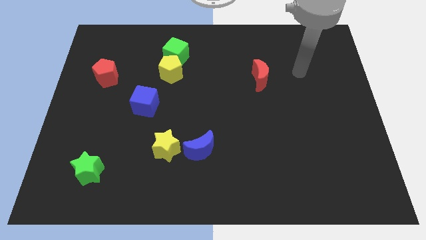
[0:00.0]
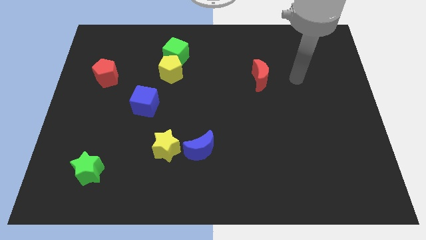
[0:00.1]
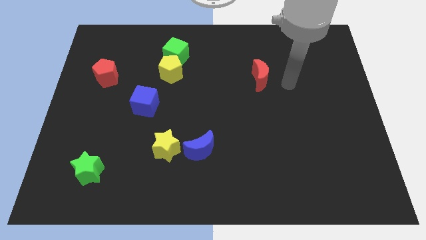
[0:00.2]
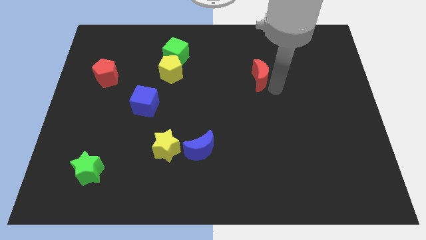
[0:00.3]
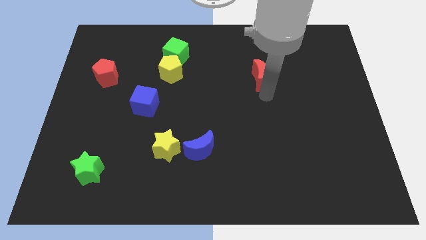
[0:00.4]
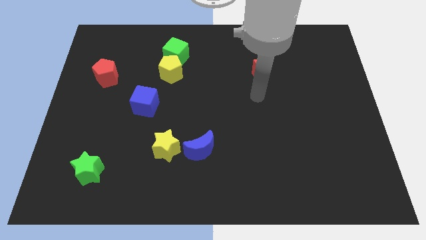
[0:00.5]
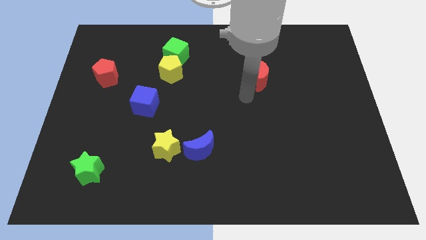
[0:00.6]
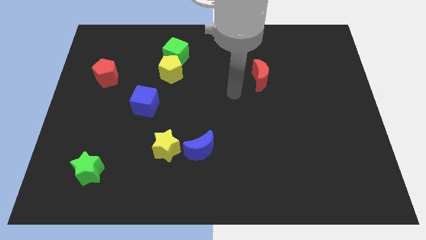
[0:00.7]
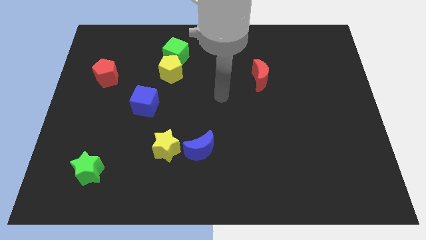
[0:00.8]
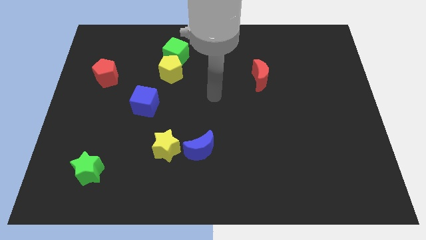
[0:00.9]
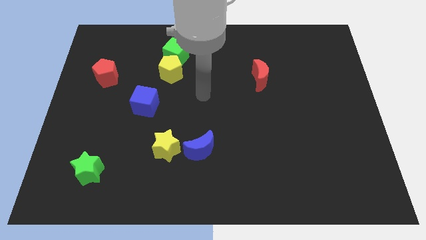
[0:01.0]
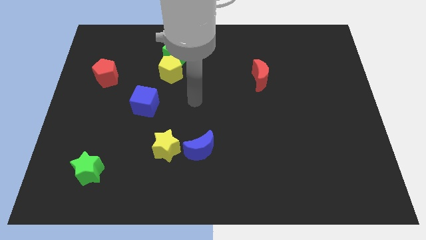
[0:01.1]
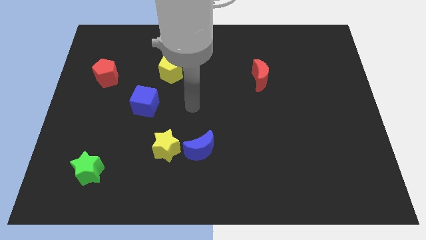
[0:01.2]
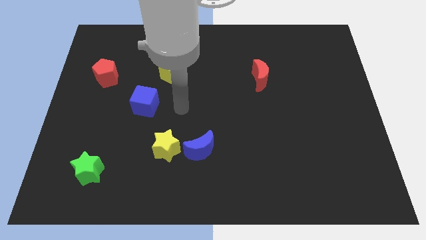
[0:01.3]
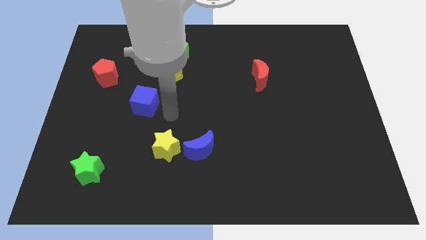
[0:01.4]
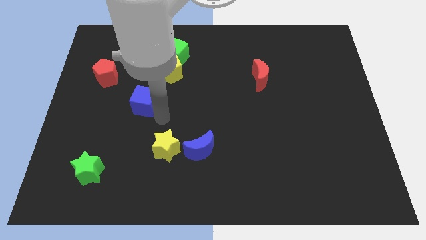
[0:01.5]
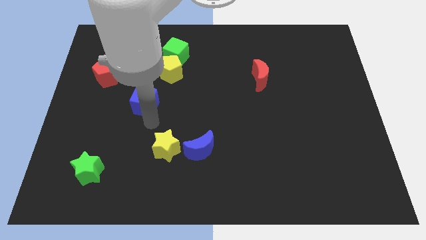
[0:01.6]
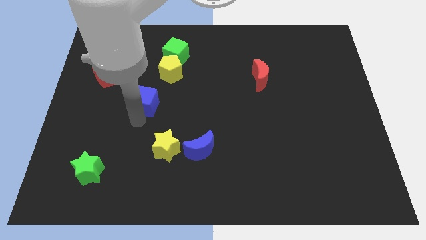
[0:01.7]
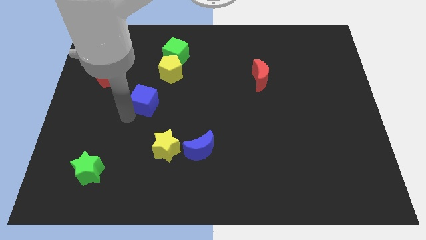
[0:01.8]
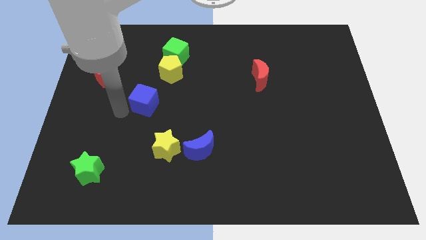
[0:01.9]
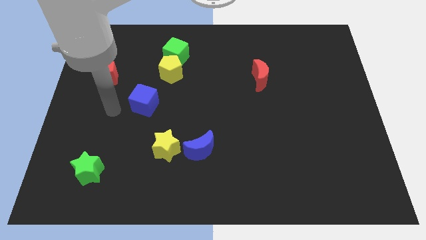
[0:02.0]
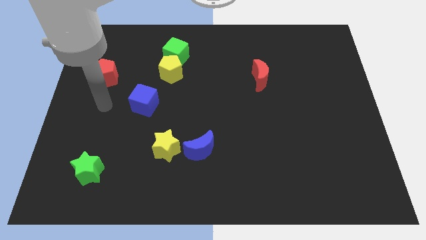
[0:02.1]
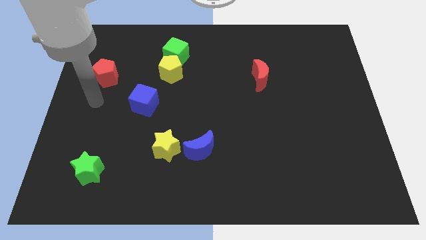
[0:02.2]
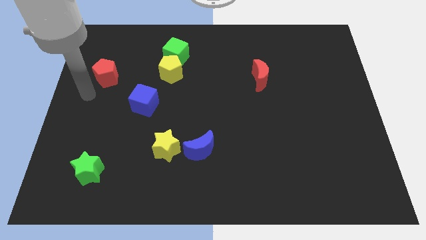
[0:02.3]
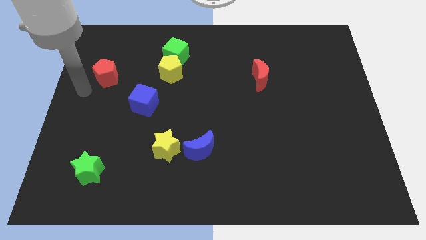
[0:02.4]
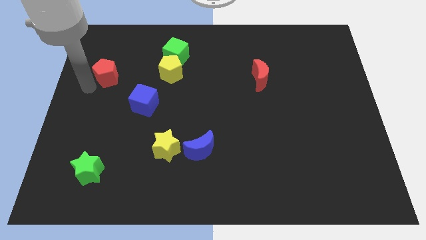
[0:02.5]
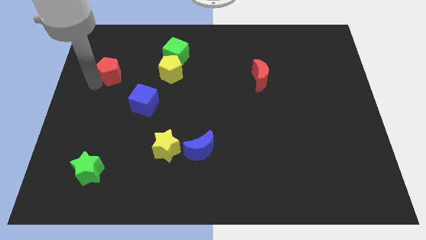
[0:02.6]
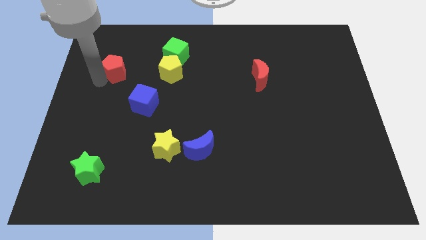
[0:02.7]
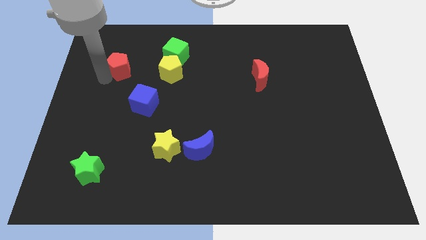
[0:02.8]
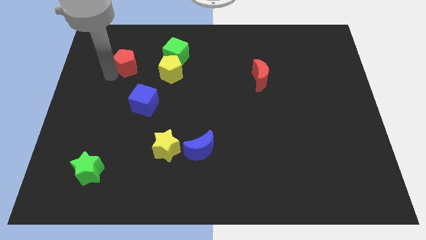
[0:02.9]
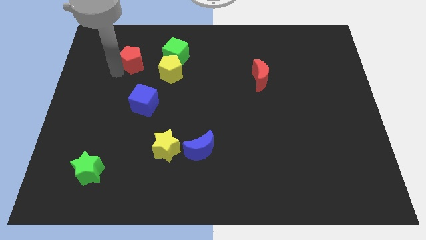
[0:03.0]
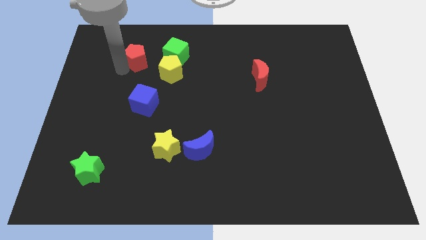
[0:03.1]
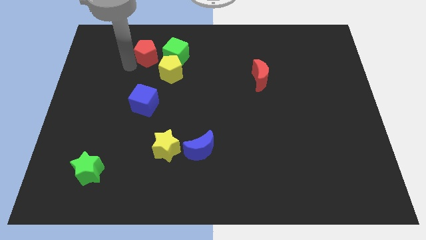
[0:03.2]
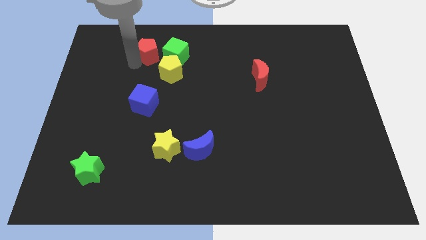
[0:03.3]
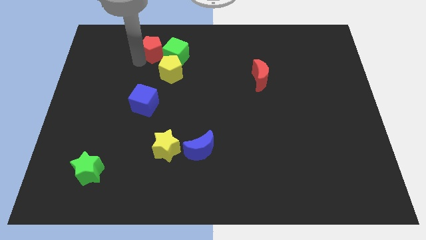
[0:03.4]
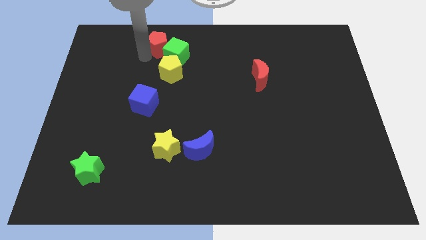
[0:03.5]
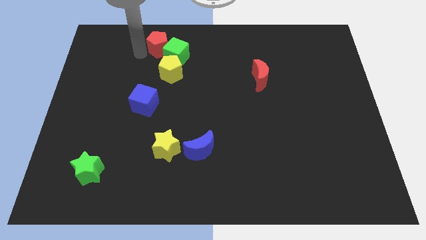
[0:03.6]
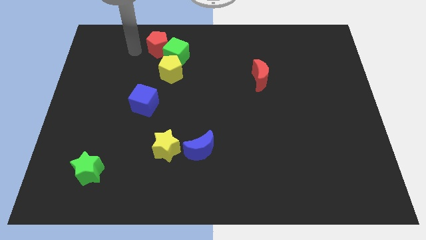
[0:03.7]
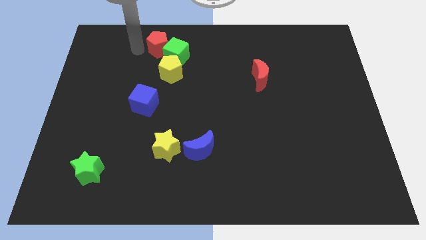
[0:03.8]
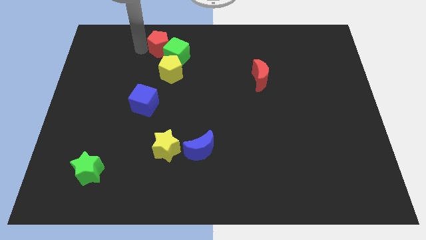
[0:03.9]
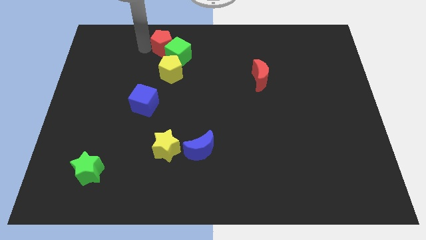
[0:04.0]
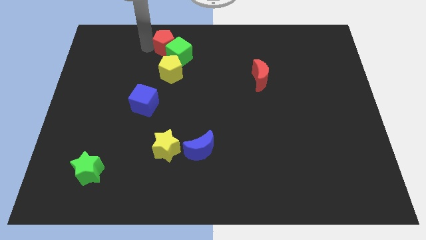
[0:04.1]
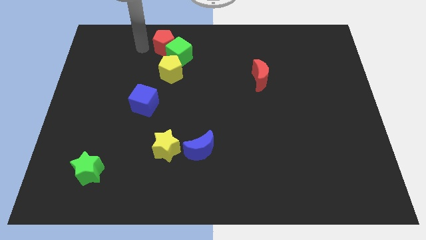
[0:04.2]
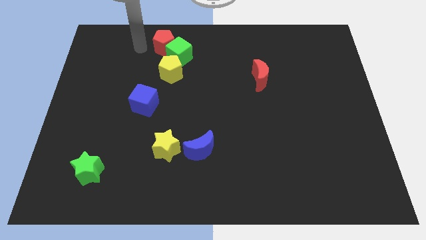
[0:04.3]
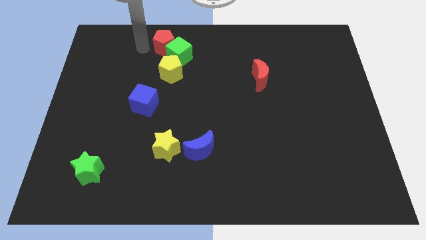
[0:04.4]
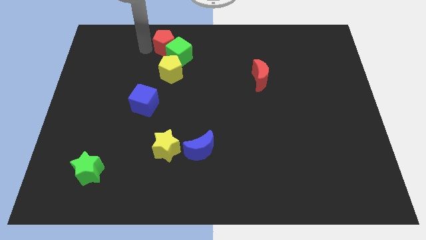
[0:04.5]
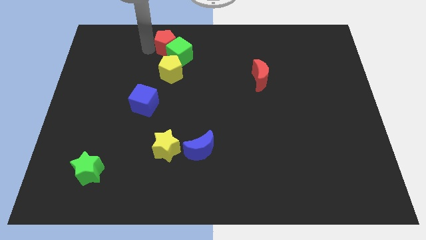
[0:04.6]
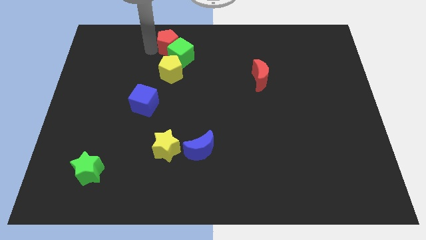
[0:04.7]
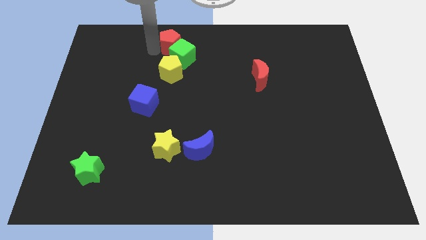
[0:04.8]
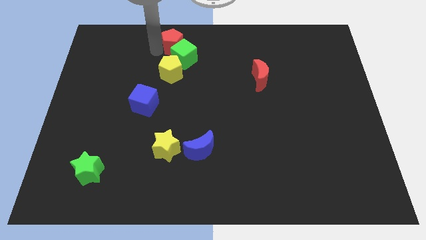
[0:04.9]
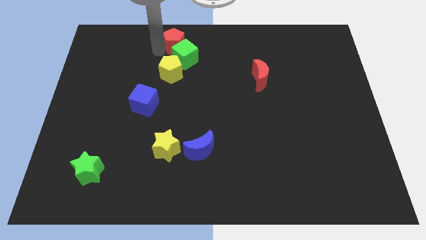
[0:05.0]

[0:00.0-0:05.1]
move the red pentagon to the top side

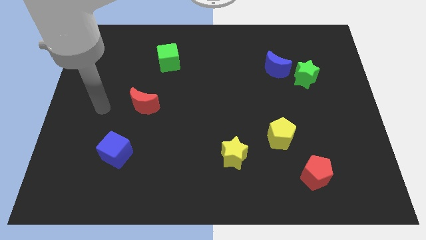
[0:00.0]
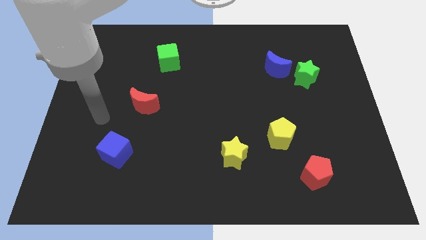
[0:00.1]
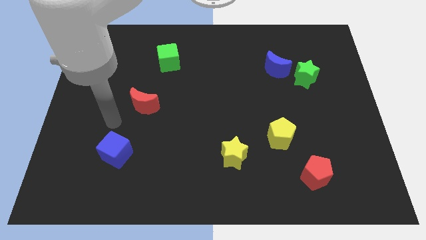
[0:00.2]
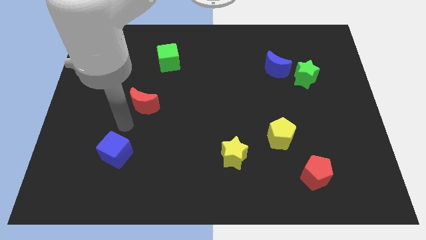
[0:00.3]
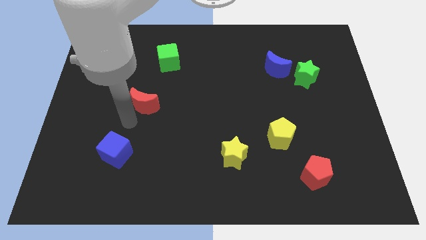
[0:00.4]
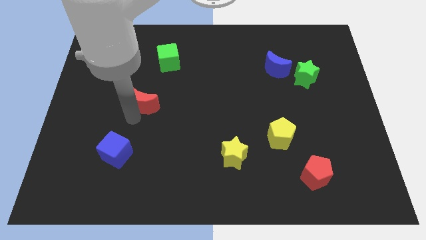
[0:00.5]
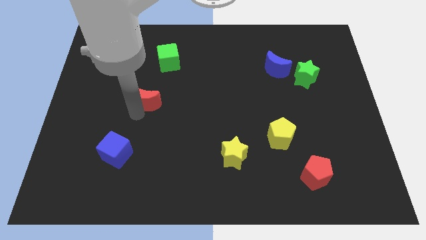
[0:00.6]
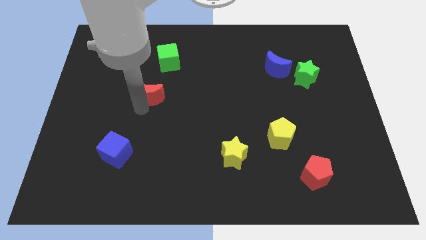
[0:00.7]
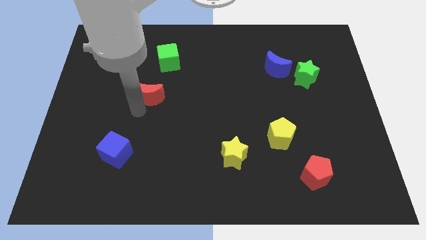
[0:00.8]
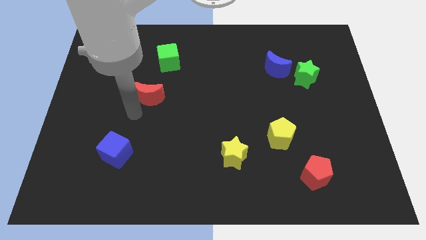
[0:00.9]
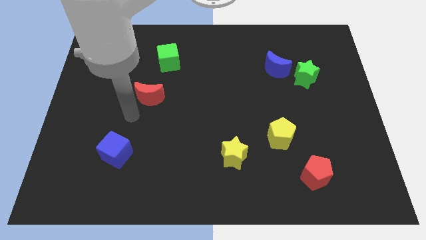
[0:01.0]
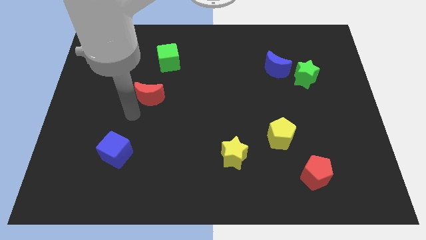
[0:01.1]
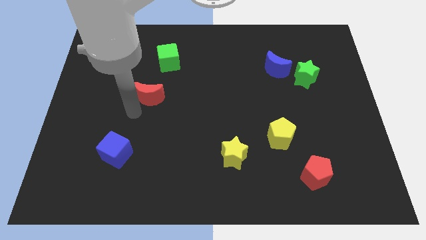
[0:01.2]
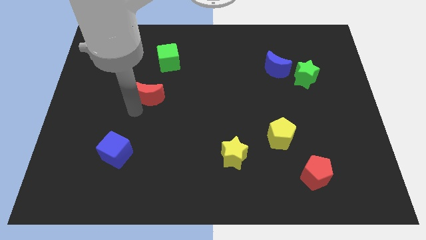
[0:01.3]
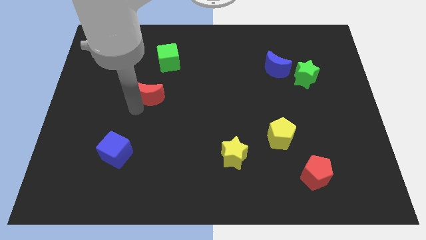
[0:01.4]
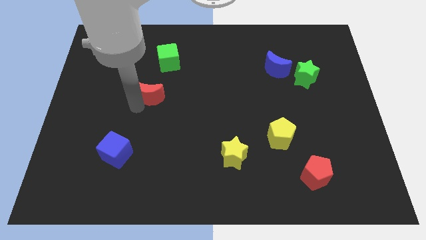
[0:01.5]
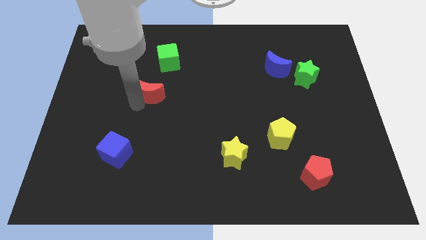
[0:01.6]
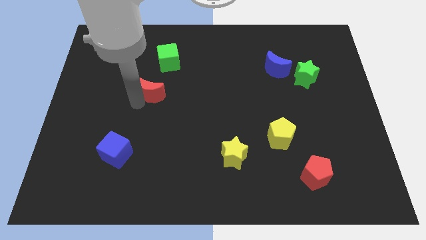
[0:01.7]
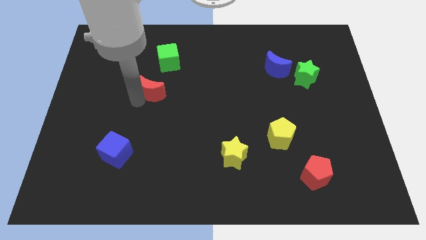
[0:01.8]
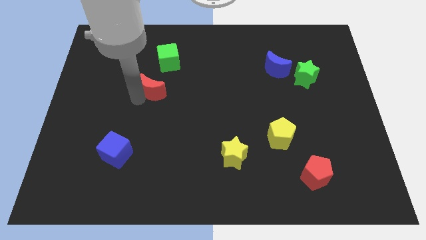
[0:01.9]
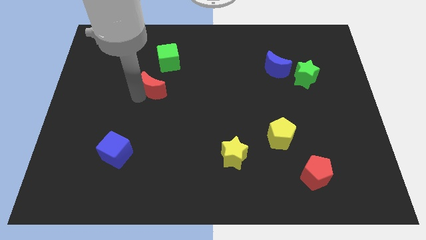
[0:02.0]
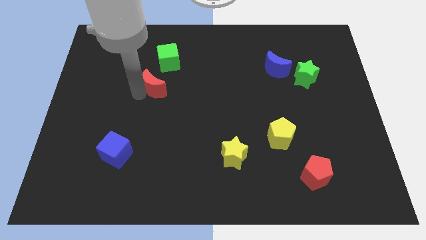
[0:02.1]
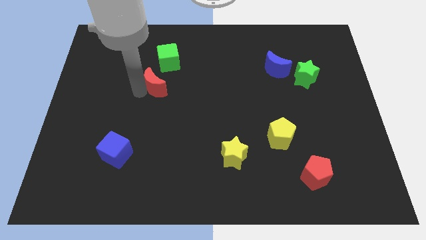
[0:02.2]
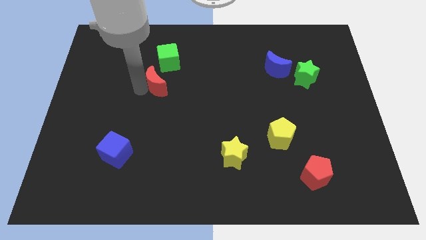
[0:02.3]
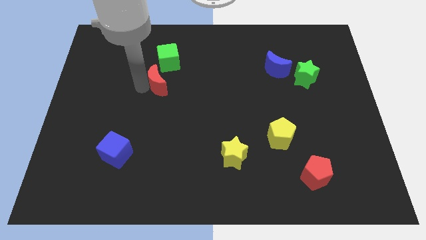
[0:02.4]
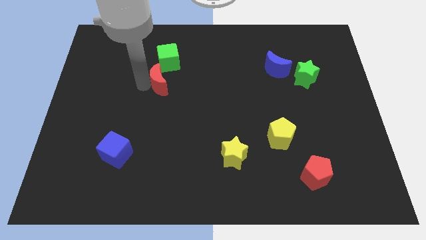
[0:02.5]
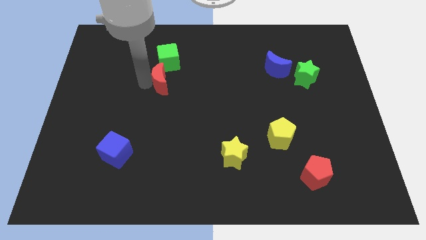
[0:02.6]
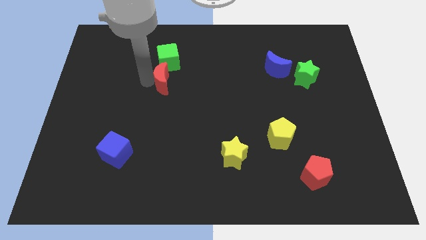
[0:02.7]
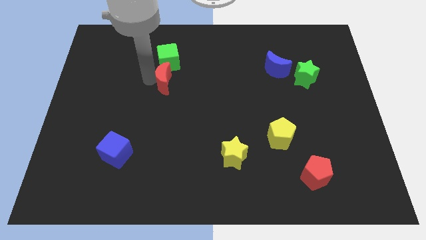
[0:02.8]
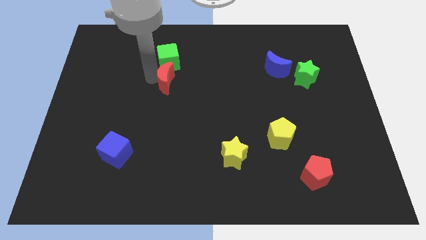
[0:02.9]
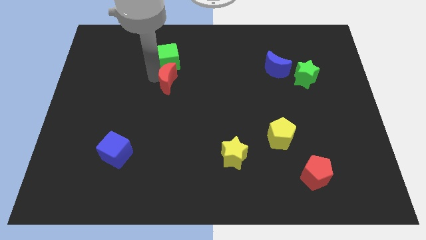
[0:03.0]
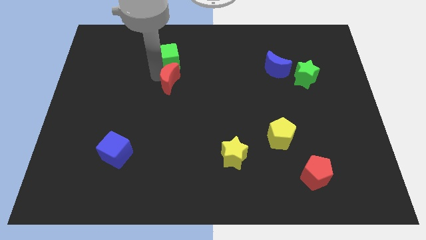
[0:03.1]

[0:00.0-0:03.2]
put the red moon to the center
